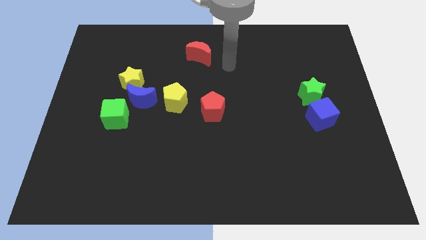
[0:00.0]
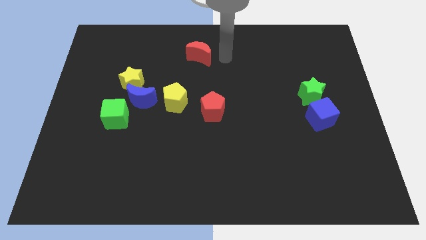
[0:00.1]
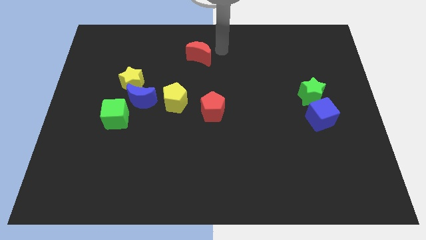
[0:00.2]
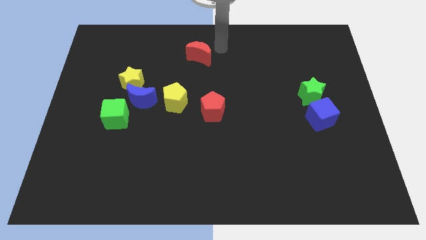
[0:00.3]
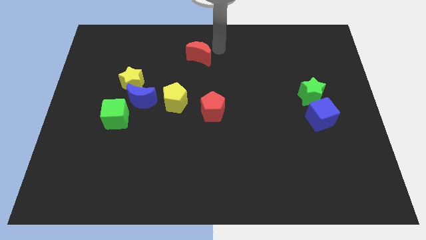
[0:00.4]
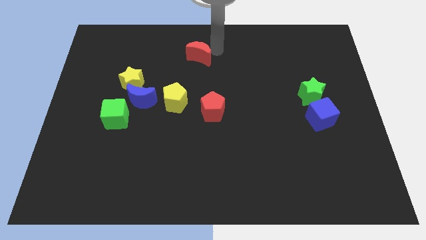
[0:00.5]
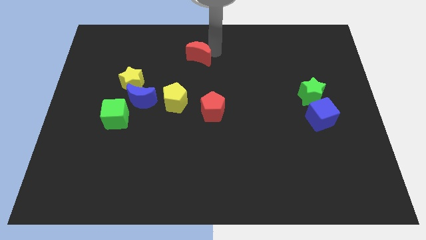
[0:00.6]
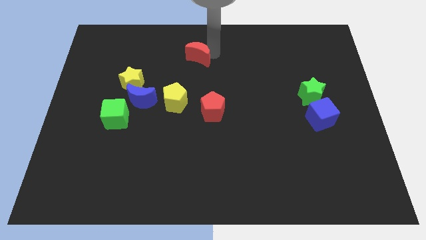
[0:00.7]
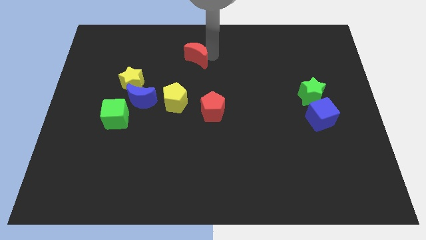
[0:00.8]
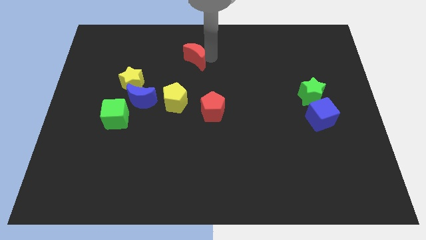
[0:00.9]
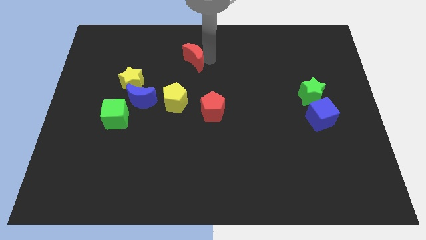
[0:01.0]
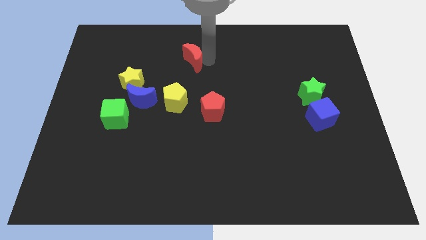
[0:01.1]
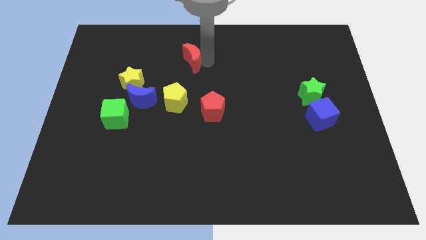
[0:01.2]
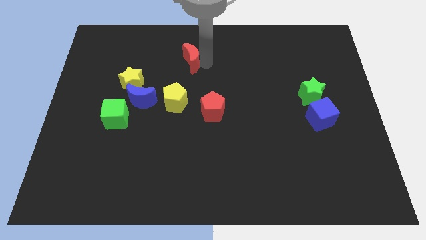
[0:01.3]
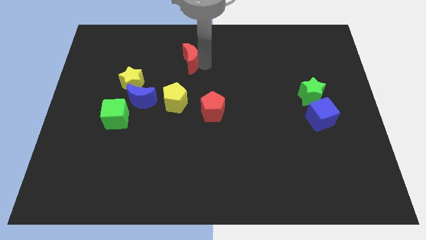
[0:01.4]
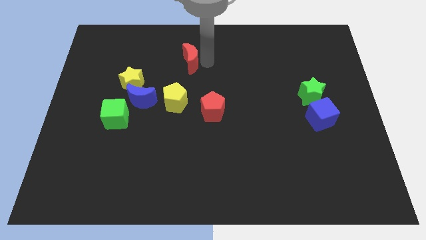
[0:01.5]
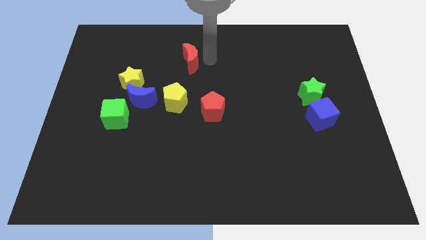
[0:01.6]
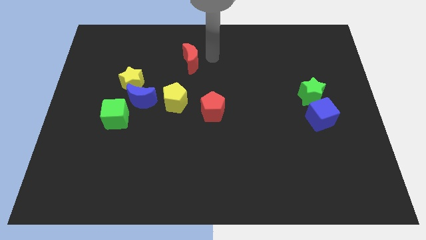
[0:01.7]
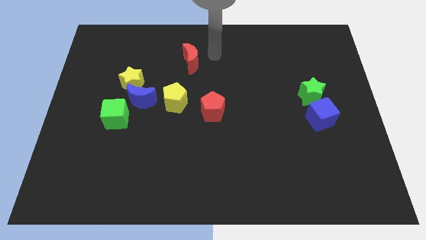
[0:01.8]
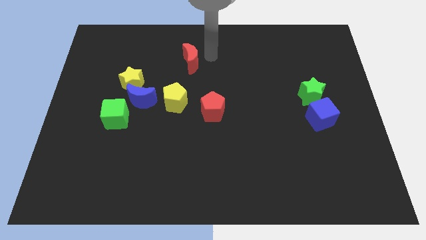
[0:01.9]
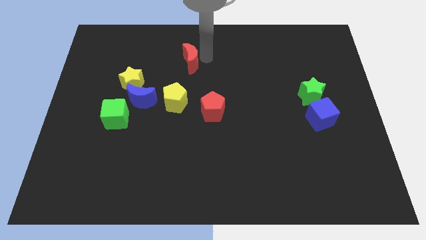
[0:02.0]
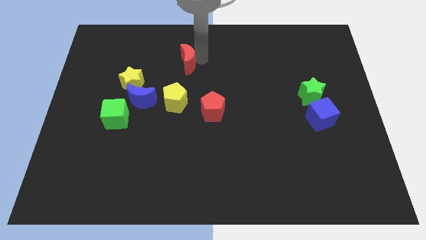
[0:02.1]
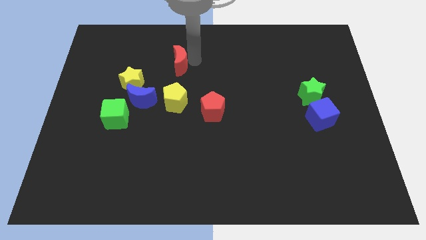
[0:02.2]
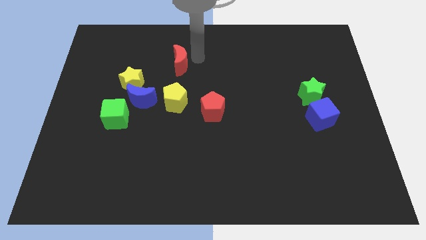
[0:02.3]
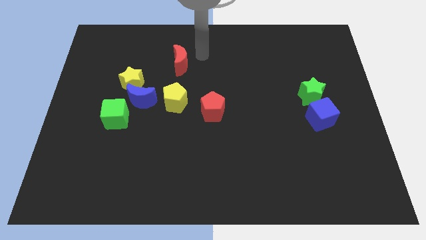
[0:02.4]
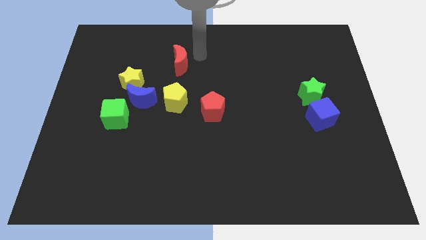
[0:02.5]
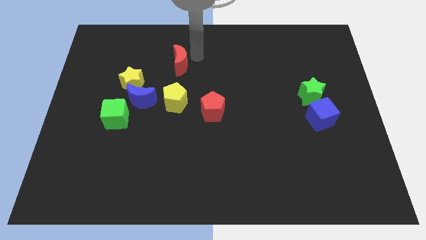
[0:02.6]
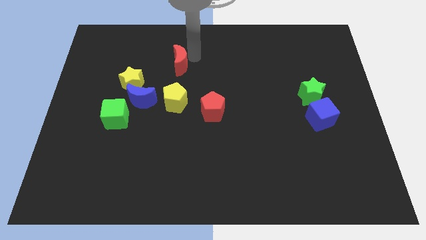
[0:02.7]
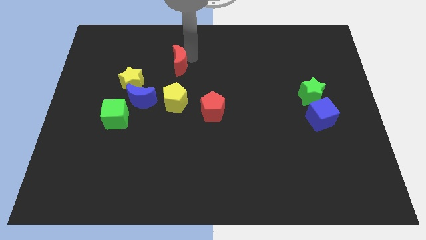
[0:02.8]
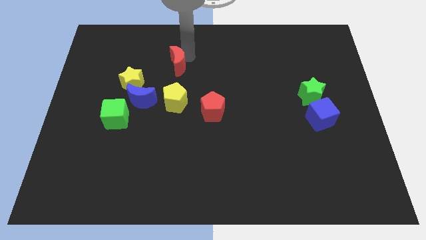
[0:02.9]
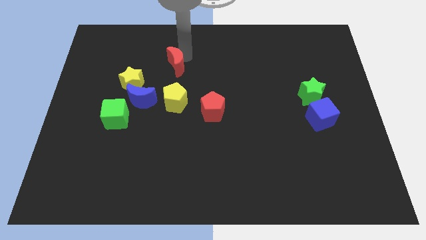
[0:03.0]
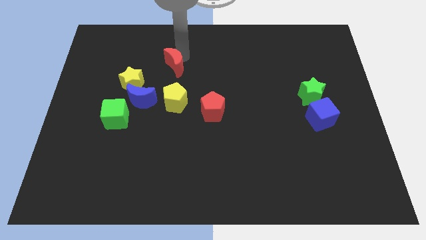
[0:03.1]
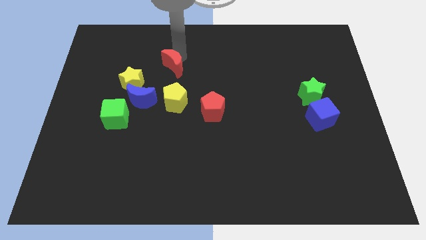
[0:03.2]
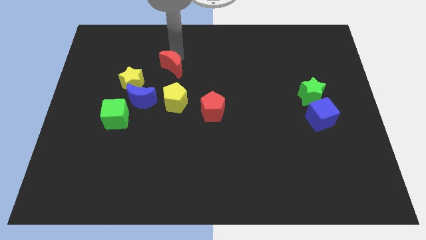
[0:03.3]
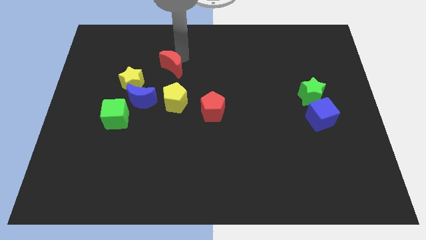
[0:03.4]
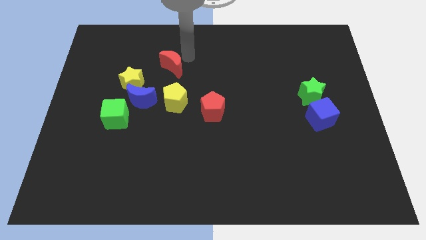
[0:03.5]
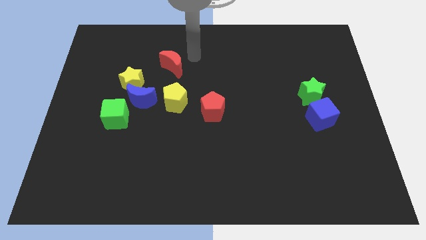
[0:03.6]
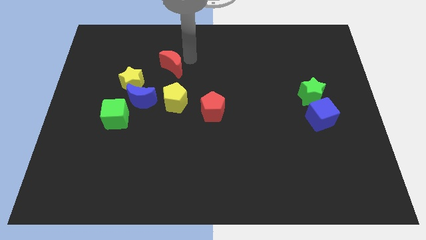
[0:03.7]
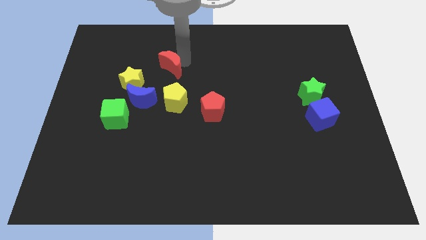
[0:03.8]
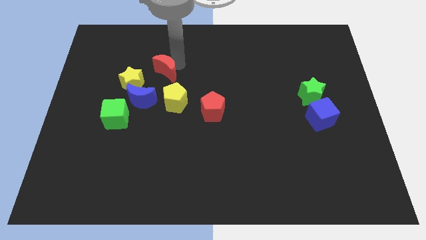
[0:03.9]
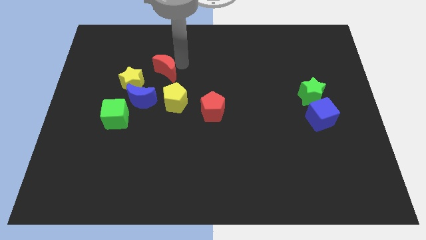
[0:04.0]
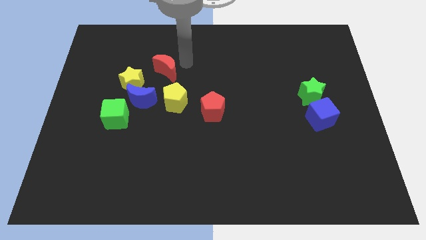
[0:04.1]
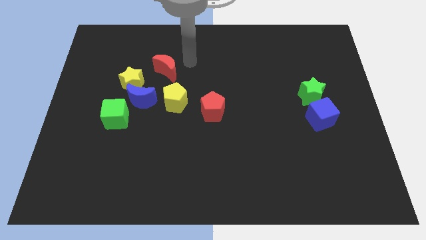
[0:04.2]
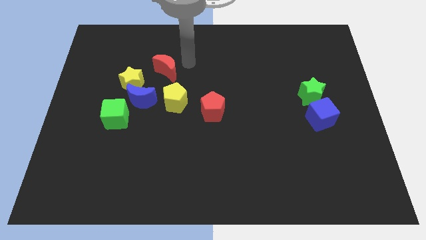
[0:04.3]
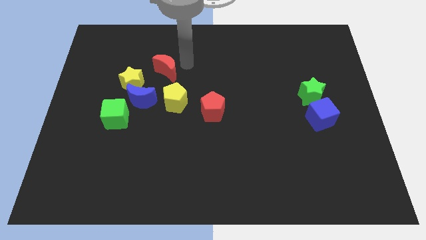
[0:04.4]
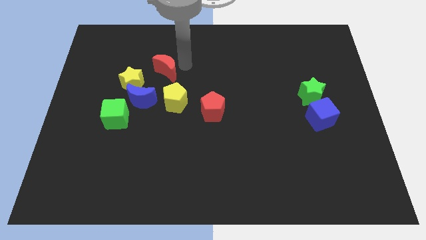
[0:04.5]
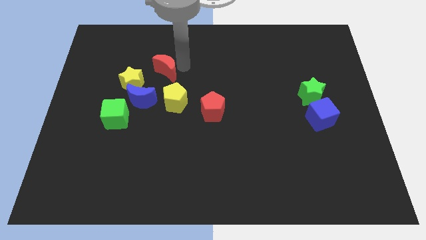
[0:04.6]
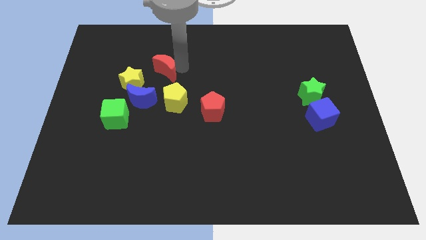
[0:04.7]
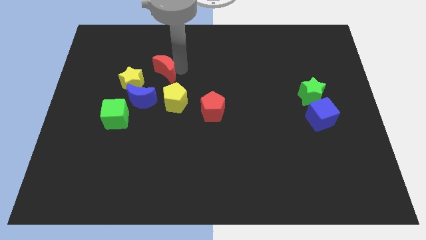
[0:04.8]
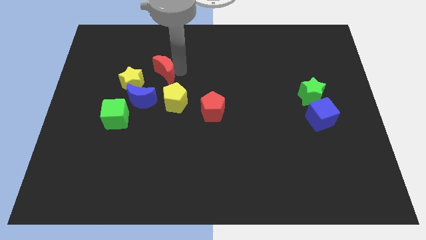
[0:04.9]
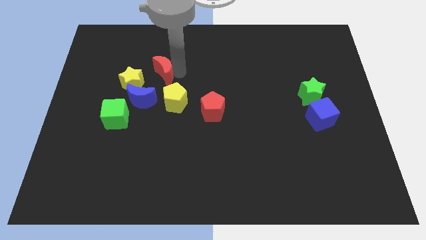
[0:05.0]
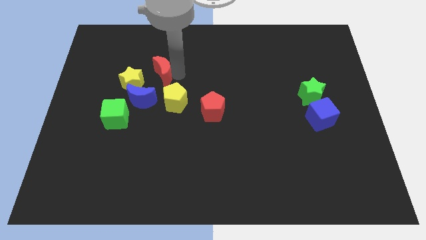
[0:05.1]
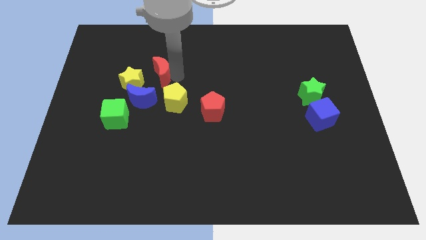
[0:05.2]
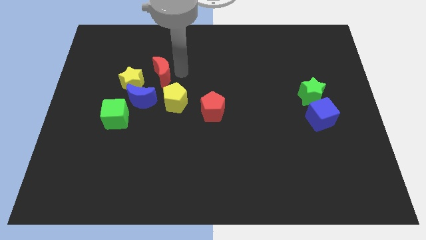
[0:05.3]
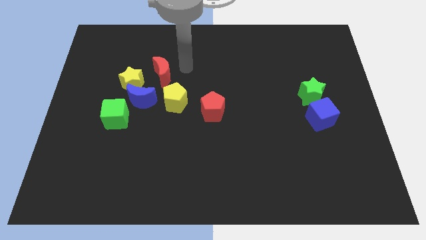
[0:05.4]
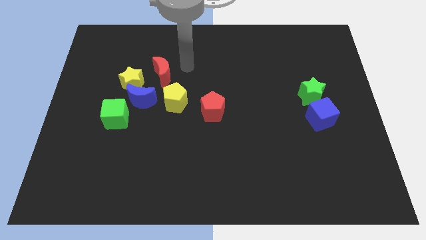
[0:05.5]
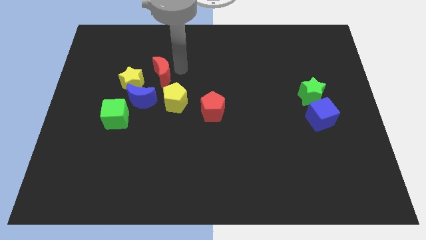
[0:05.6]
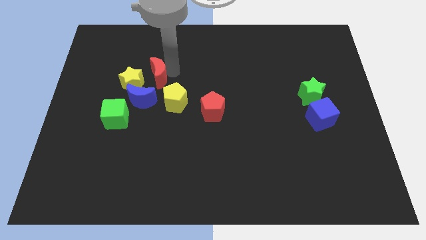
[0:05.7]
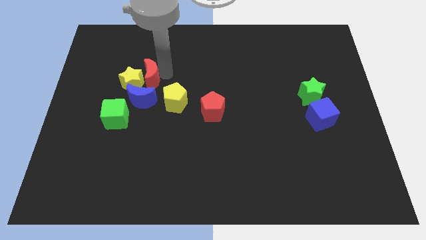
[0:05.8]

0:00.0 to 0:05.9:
push the red moon close to the yellow star

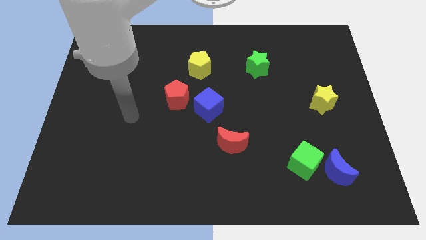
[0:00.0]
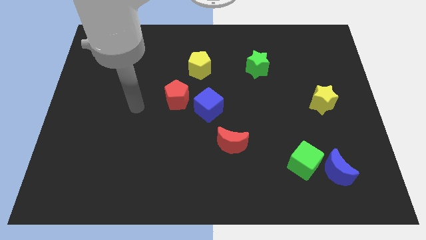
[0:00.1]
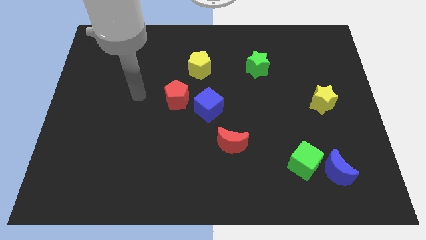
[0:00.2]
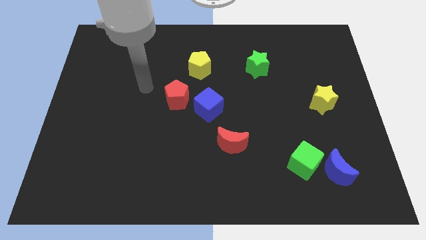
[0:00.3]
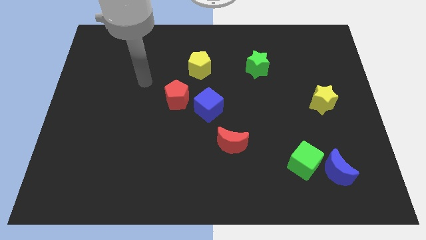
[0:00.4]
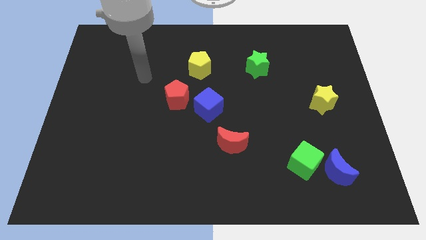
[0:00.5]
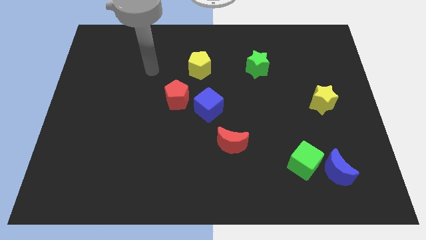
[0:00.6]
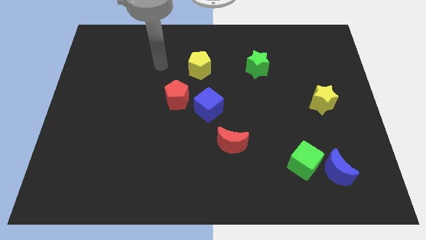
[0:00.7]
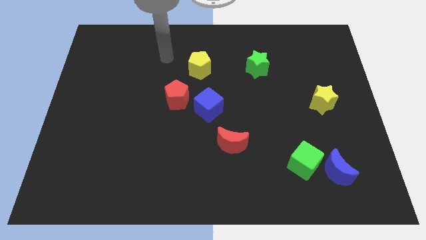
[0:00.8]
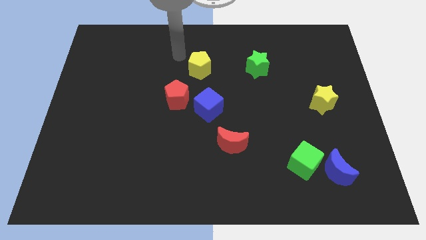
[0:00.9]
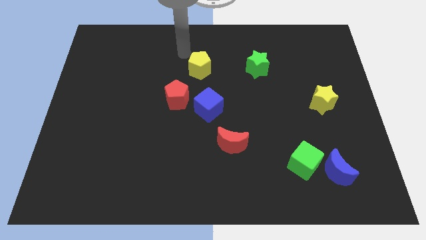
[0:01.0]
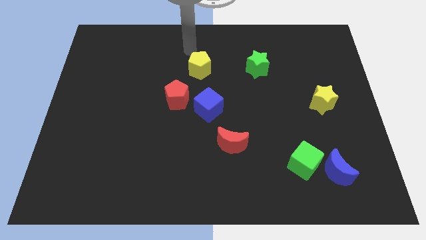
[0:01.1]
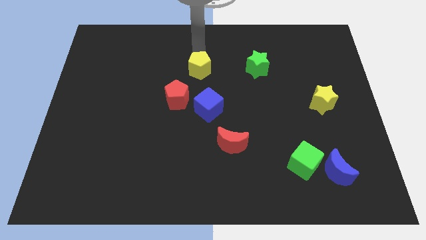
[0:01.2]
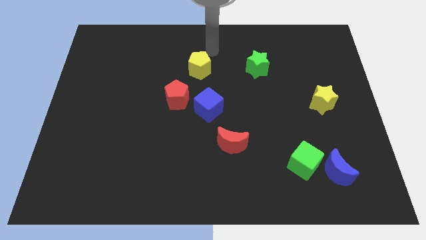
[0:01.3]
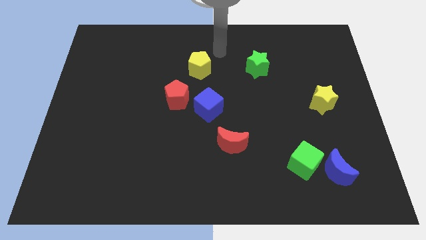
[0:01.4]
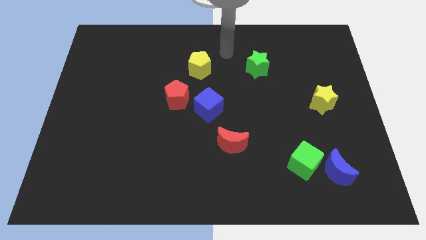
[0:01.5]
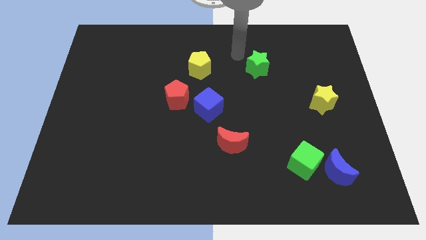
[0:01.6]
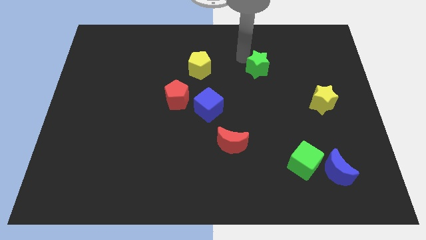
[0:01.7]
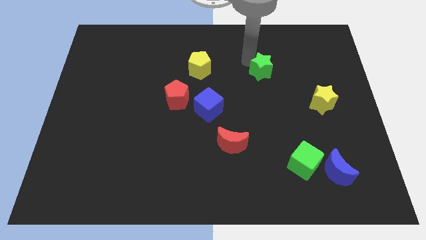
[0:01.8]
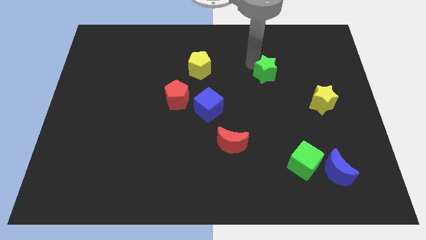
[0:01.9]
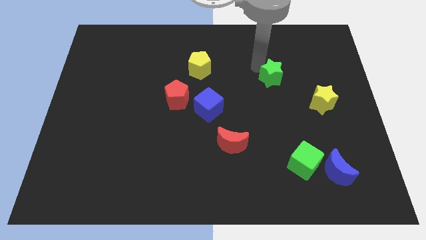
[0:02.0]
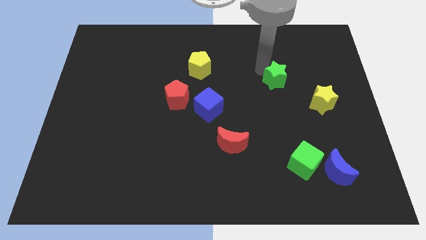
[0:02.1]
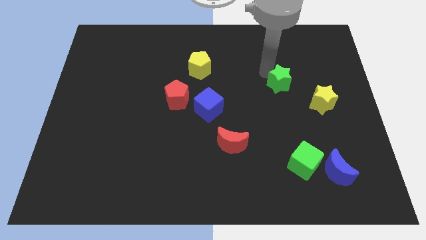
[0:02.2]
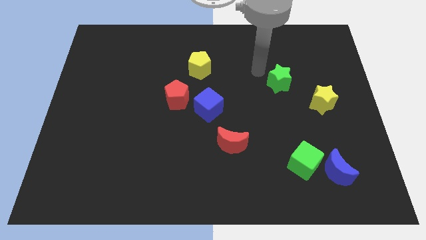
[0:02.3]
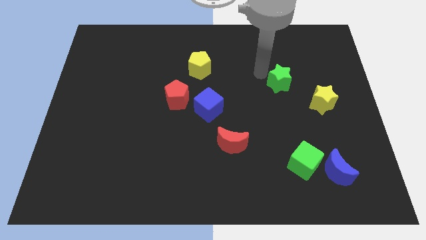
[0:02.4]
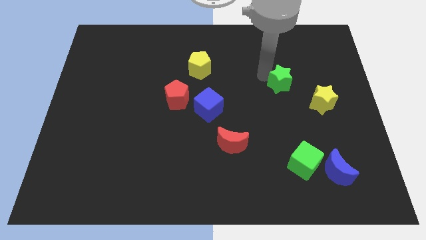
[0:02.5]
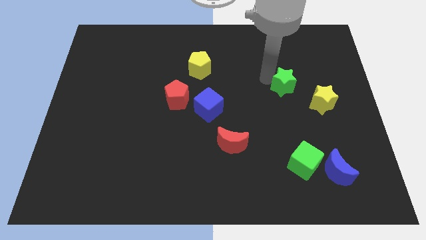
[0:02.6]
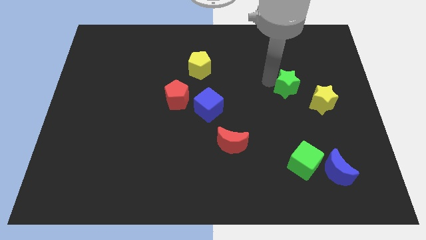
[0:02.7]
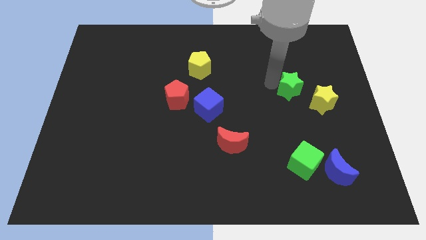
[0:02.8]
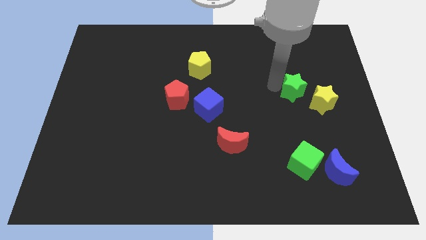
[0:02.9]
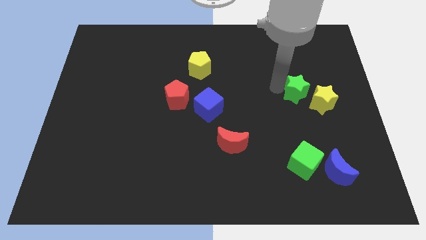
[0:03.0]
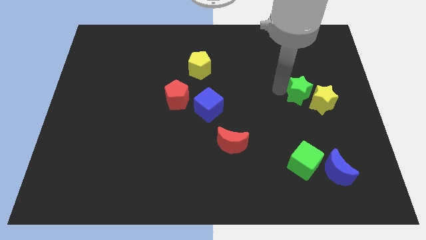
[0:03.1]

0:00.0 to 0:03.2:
move the green star to the yellow star
